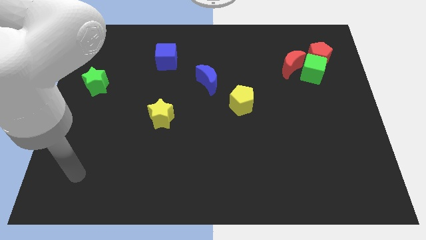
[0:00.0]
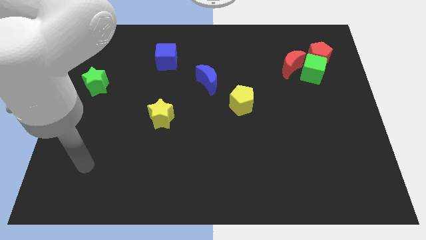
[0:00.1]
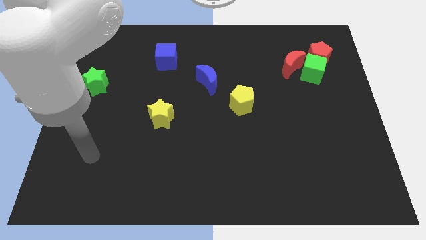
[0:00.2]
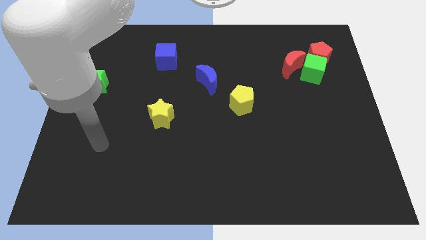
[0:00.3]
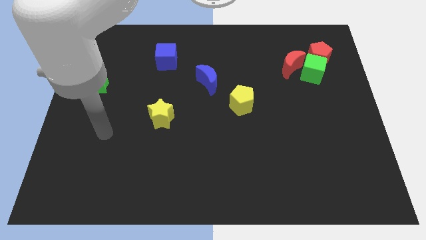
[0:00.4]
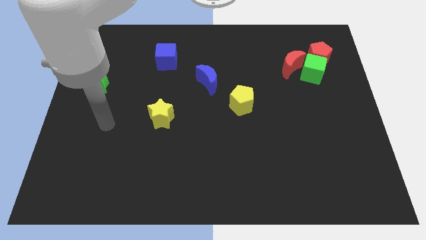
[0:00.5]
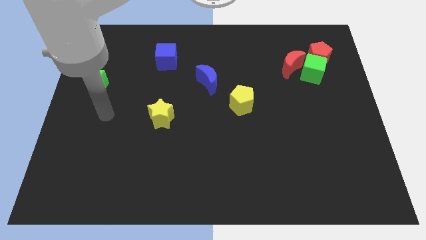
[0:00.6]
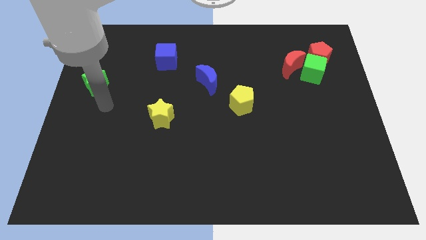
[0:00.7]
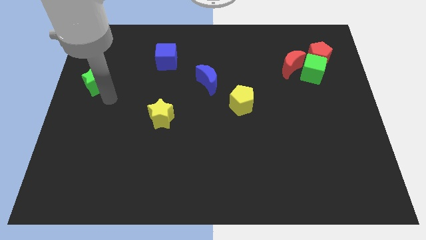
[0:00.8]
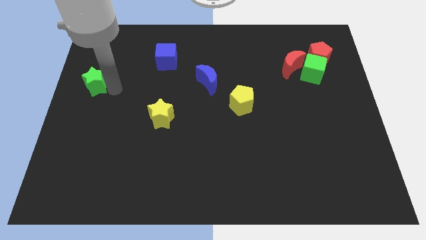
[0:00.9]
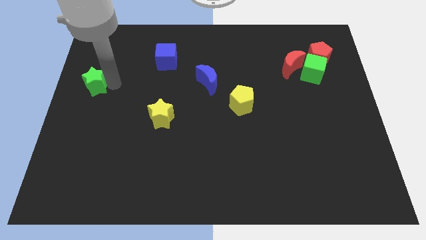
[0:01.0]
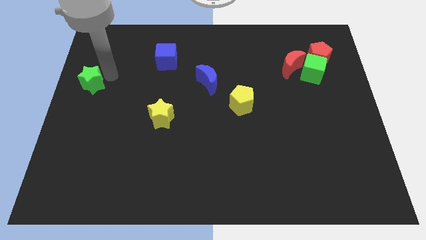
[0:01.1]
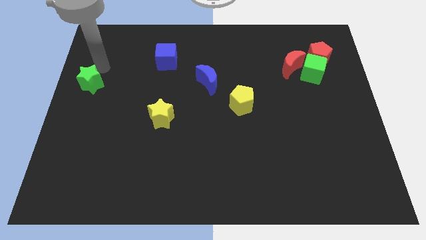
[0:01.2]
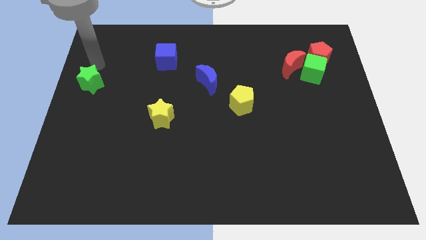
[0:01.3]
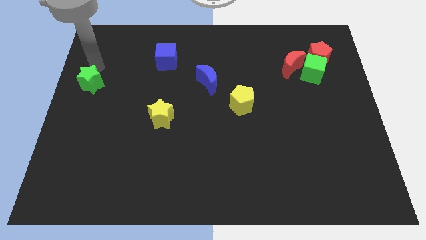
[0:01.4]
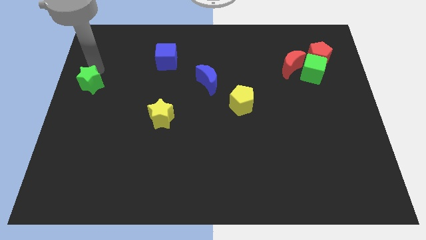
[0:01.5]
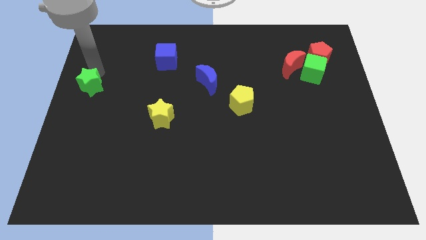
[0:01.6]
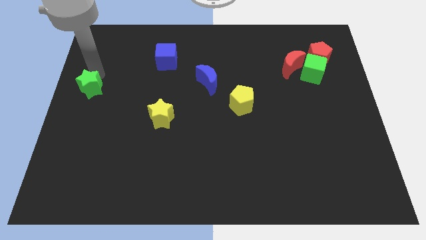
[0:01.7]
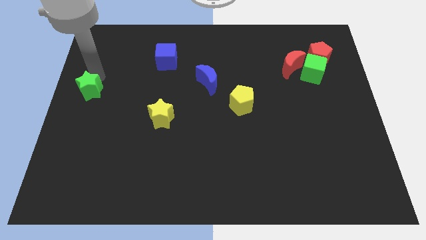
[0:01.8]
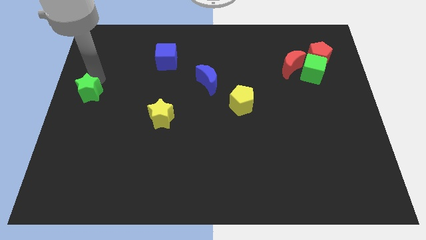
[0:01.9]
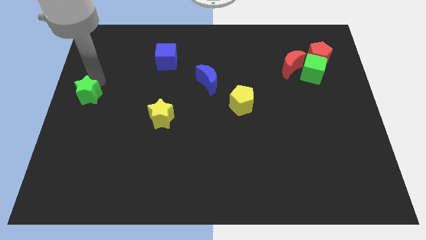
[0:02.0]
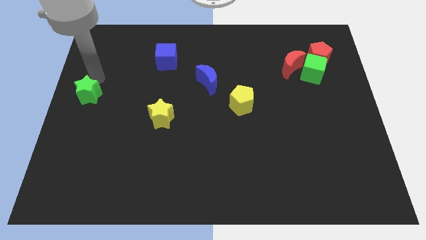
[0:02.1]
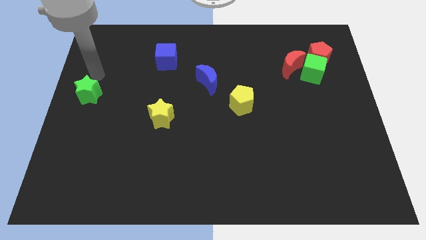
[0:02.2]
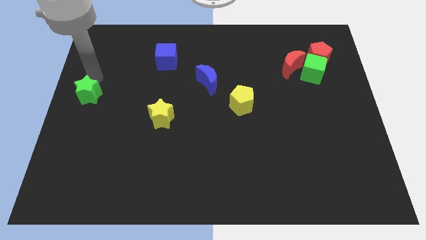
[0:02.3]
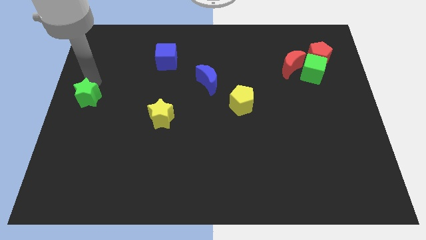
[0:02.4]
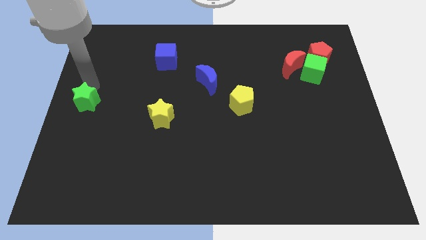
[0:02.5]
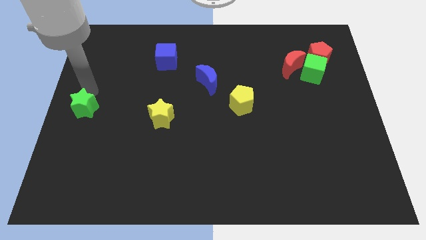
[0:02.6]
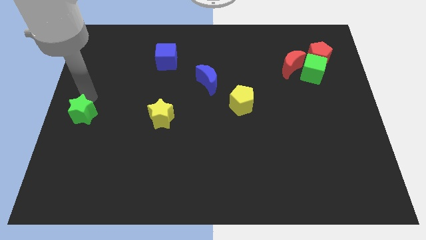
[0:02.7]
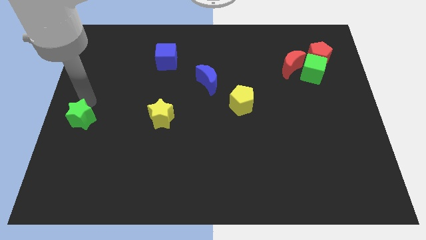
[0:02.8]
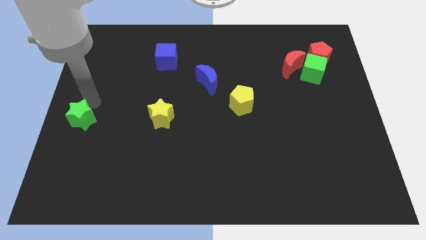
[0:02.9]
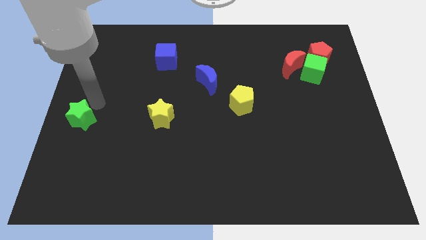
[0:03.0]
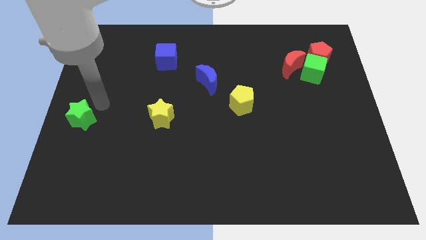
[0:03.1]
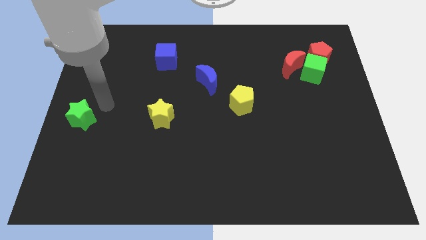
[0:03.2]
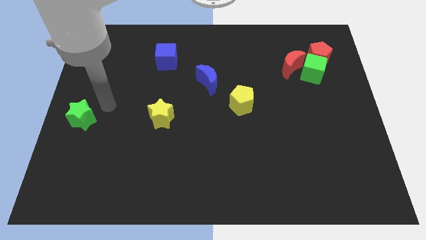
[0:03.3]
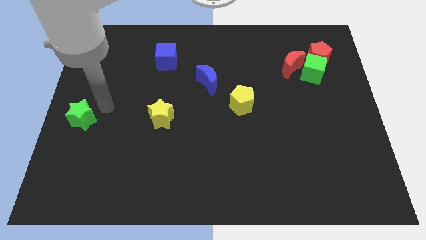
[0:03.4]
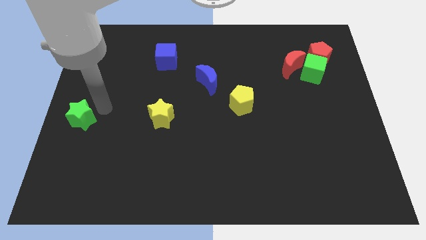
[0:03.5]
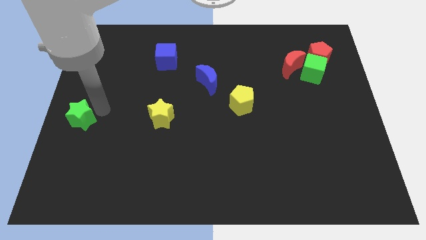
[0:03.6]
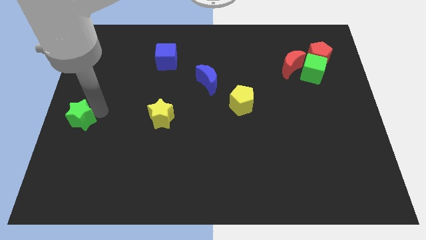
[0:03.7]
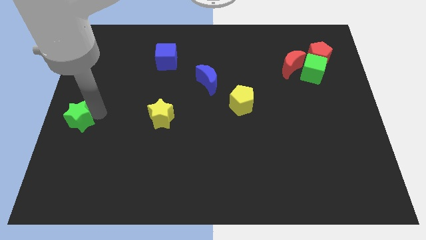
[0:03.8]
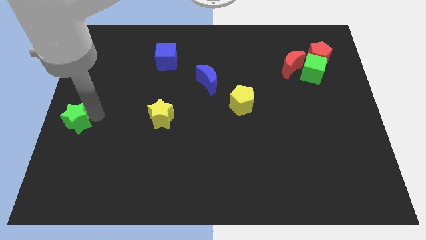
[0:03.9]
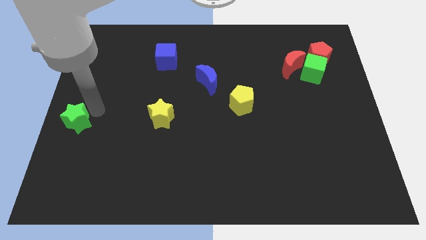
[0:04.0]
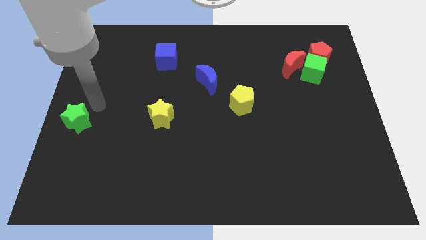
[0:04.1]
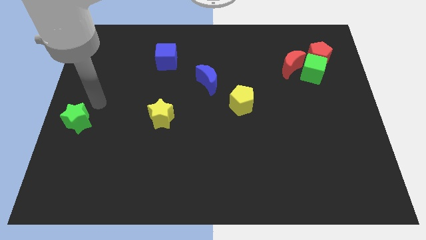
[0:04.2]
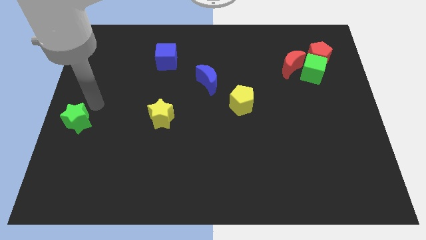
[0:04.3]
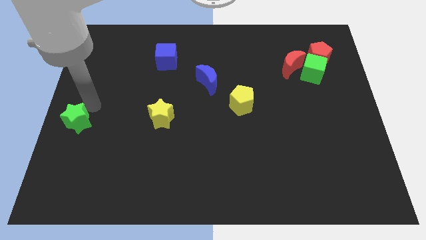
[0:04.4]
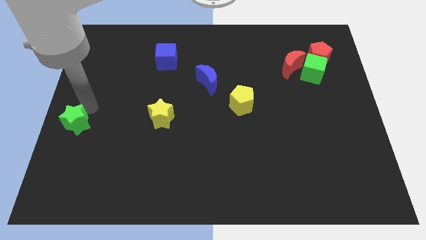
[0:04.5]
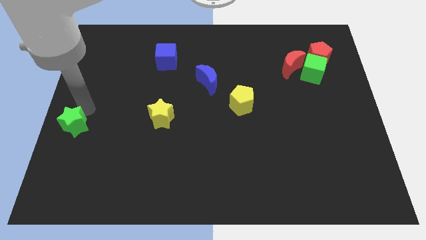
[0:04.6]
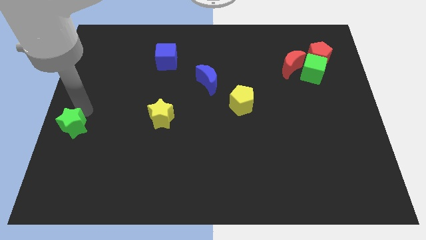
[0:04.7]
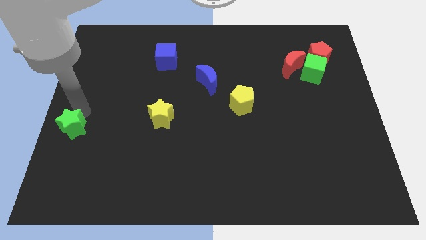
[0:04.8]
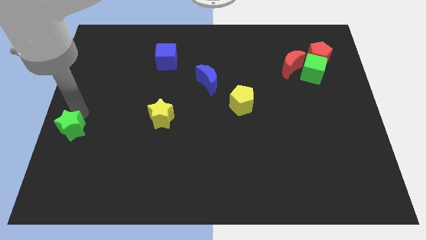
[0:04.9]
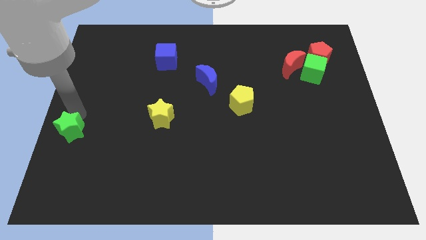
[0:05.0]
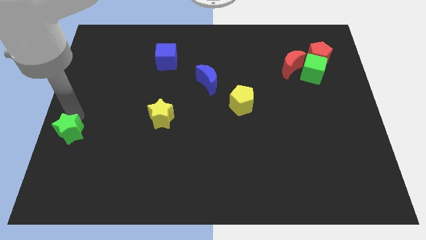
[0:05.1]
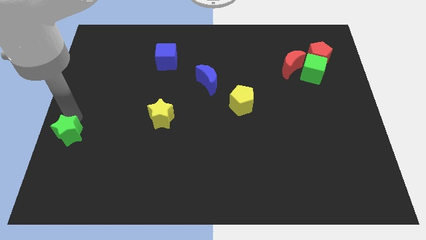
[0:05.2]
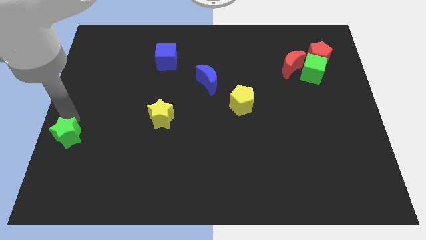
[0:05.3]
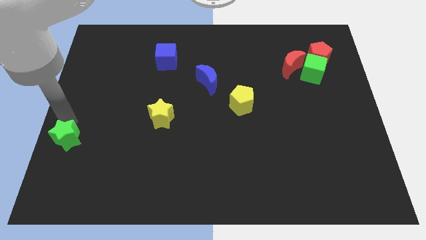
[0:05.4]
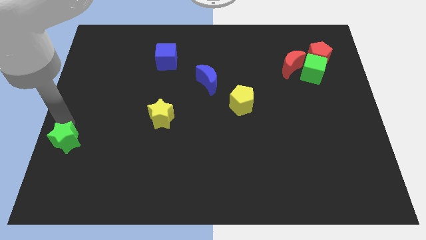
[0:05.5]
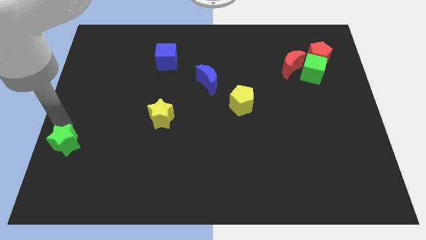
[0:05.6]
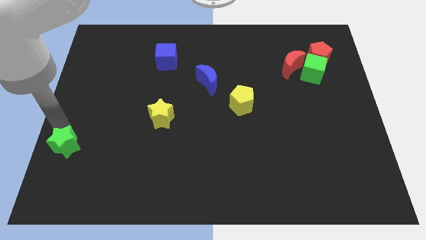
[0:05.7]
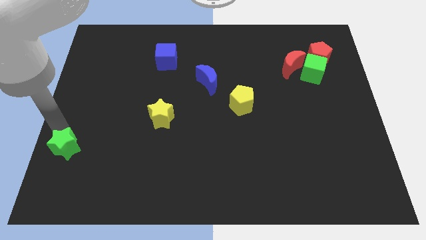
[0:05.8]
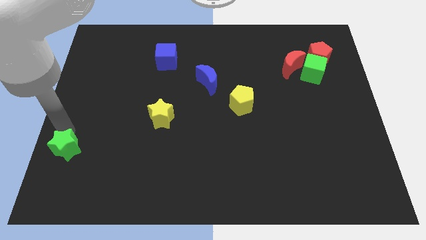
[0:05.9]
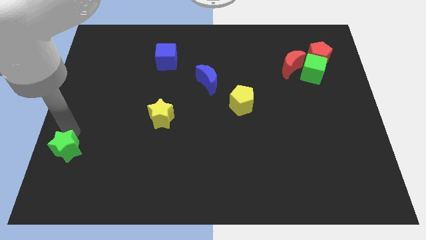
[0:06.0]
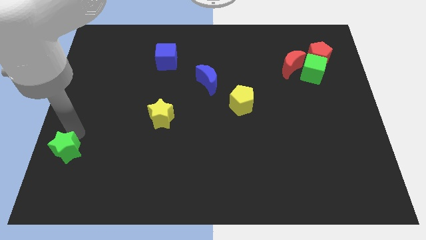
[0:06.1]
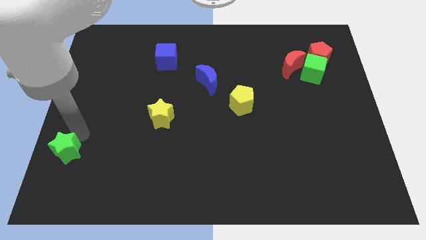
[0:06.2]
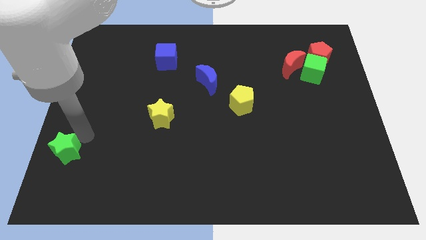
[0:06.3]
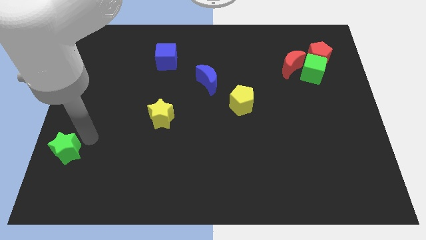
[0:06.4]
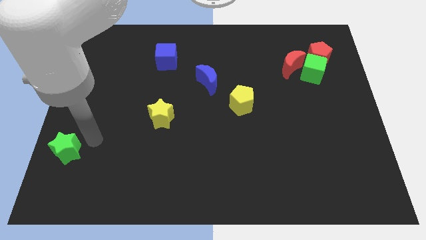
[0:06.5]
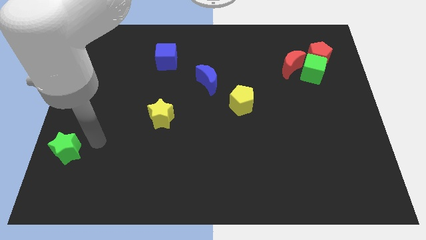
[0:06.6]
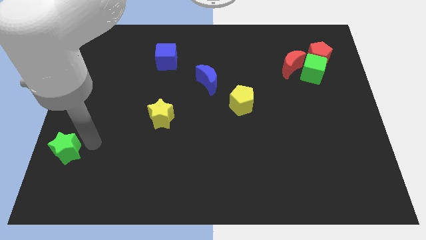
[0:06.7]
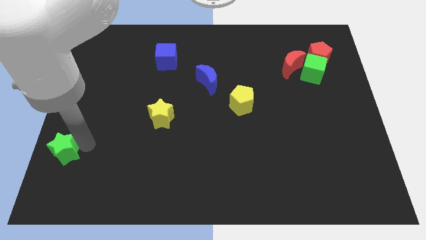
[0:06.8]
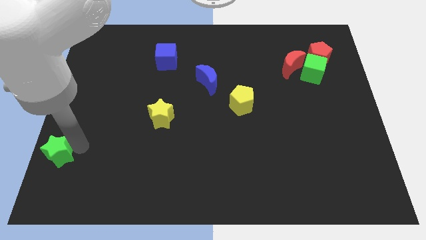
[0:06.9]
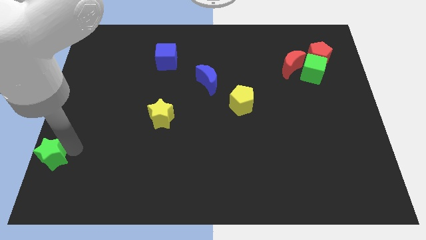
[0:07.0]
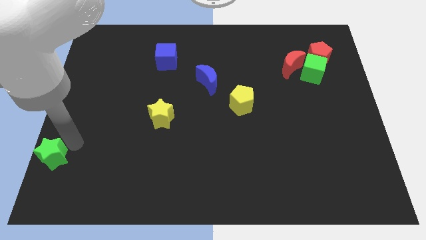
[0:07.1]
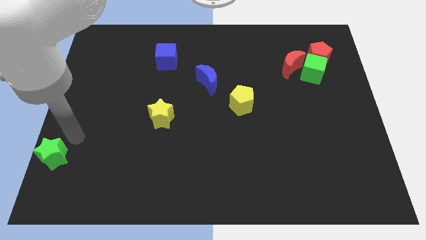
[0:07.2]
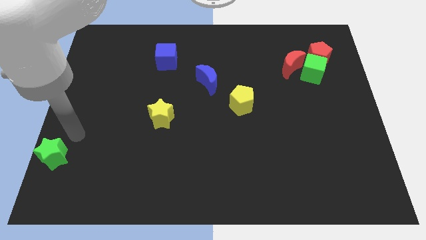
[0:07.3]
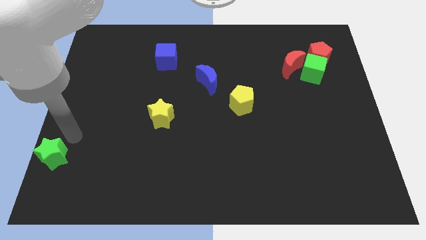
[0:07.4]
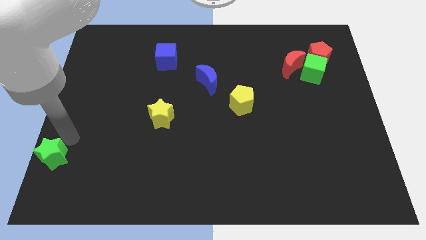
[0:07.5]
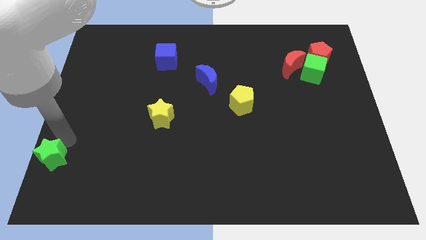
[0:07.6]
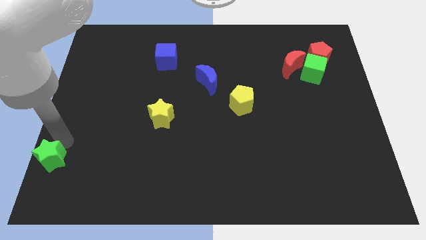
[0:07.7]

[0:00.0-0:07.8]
push the green star to the lower left corner
